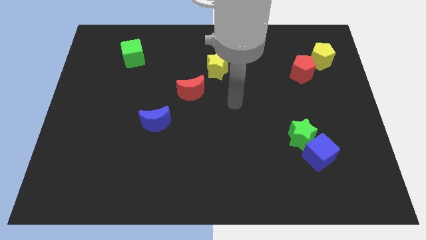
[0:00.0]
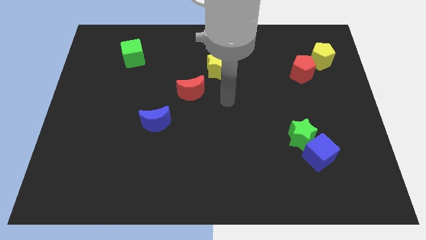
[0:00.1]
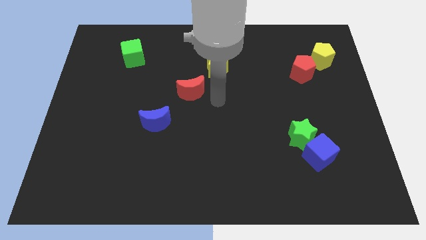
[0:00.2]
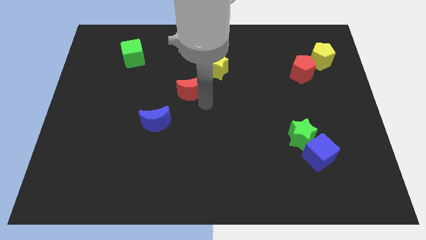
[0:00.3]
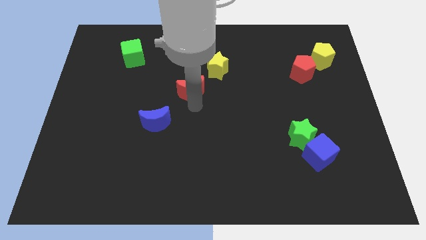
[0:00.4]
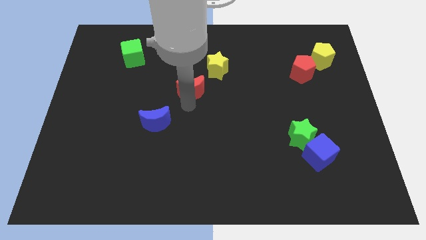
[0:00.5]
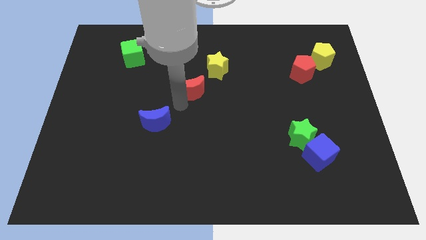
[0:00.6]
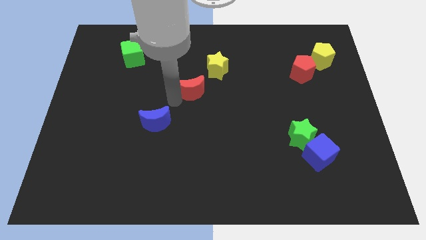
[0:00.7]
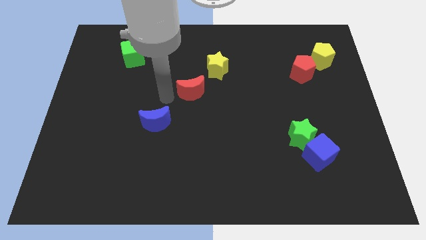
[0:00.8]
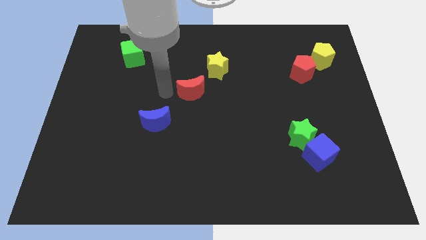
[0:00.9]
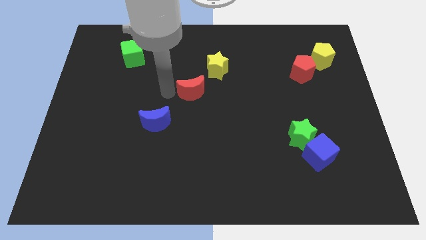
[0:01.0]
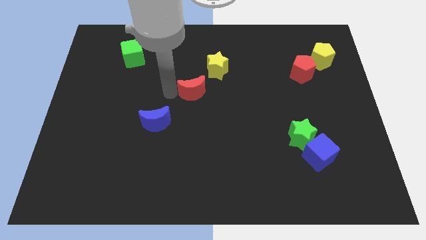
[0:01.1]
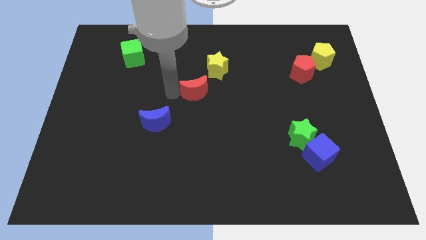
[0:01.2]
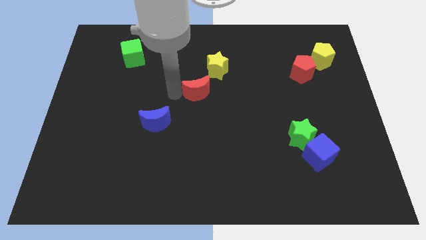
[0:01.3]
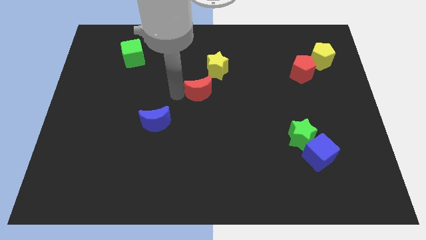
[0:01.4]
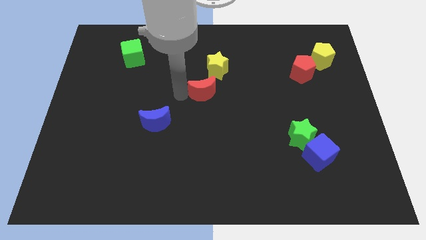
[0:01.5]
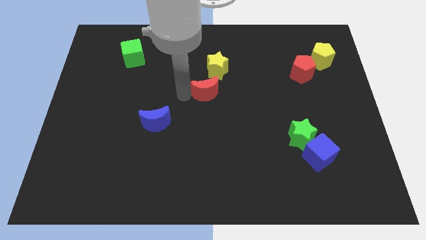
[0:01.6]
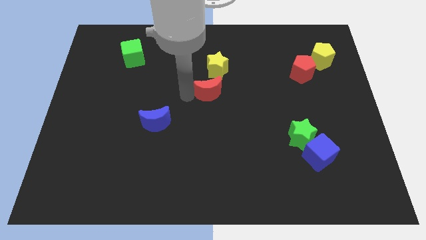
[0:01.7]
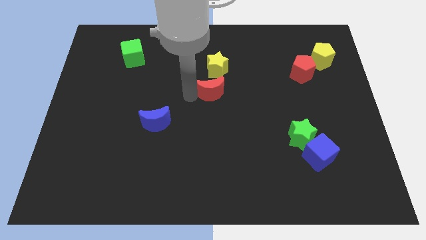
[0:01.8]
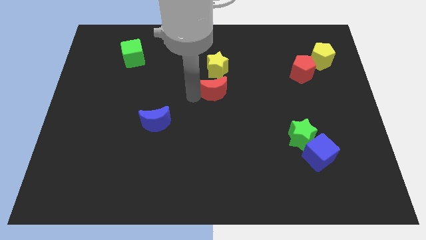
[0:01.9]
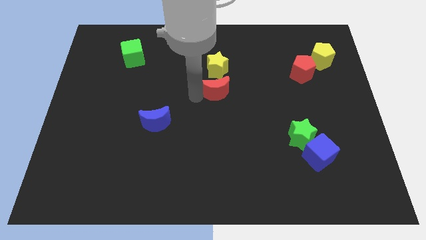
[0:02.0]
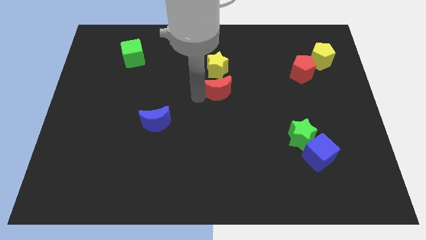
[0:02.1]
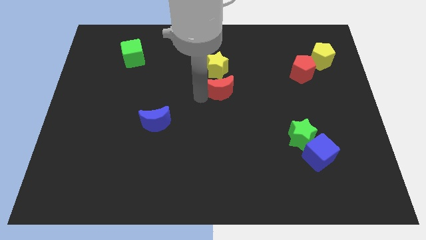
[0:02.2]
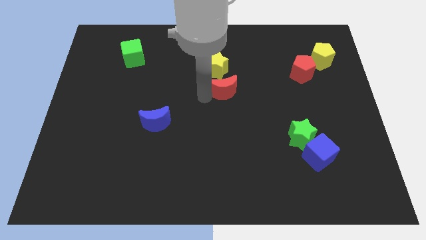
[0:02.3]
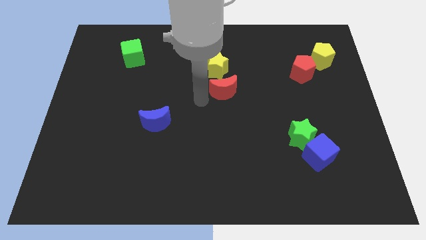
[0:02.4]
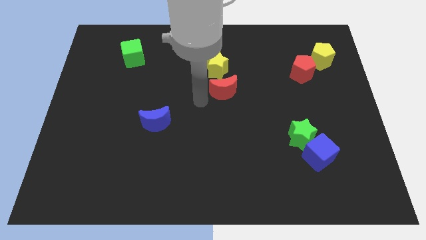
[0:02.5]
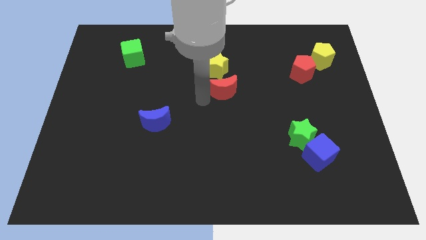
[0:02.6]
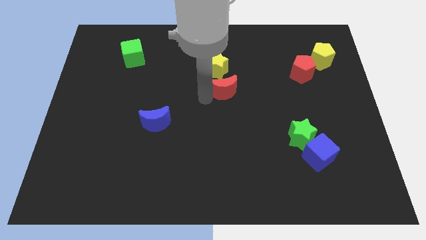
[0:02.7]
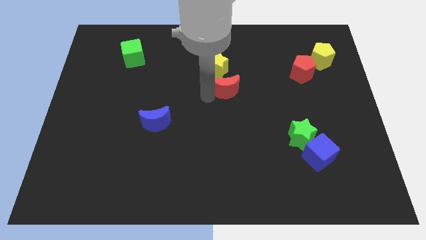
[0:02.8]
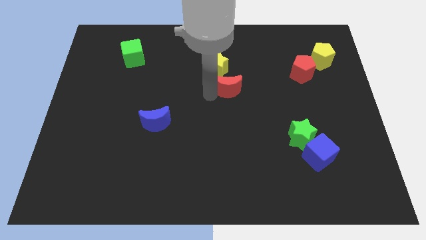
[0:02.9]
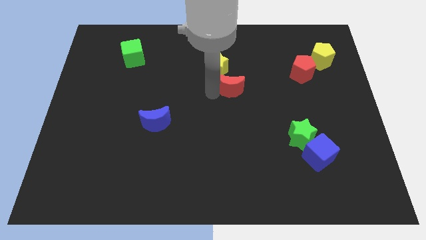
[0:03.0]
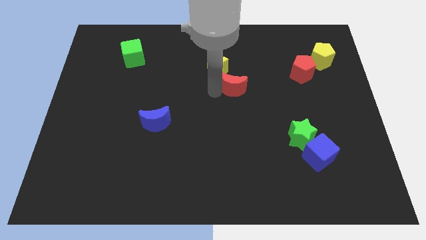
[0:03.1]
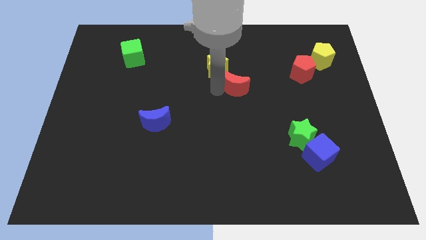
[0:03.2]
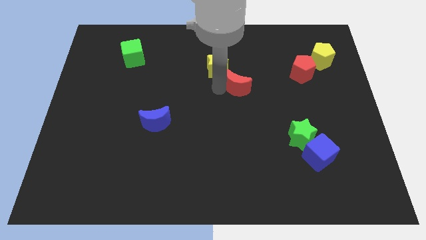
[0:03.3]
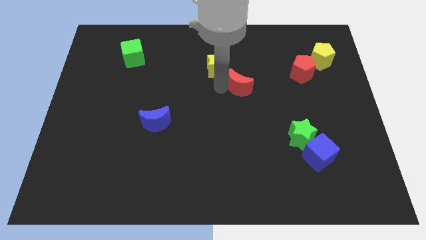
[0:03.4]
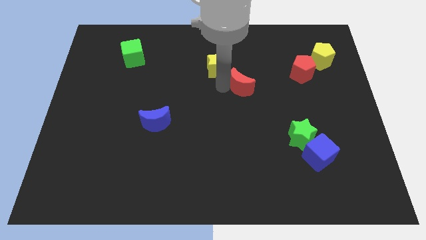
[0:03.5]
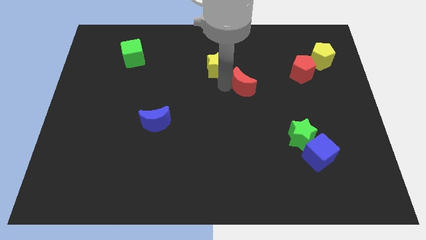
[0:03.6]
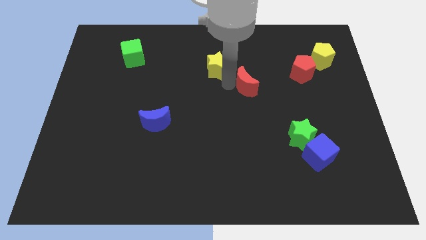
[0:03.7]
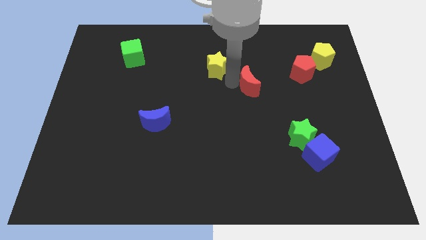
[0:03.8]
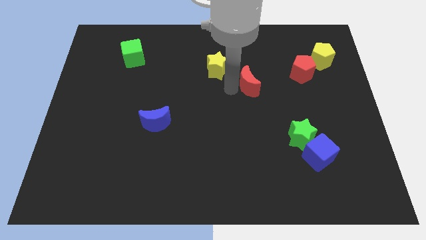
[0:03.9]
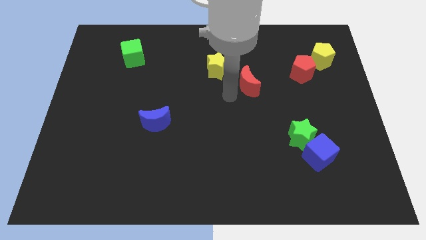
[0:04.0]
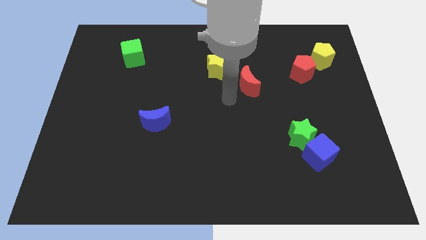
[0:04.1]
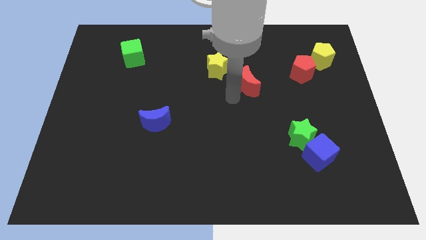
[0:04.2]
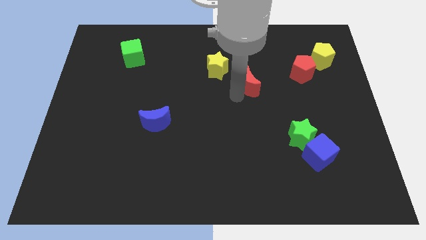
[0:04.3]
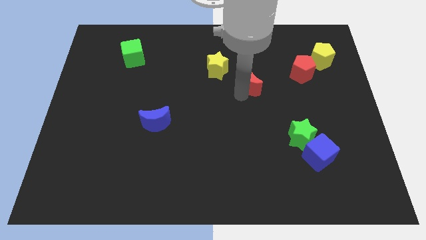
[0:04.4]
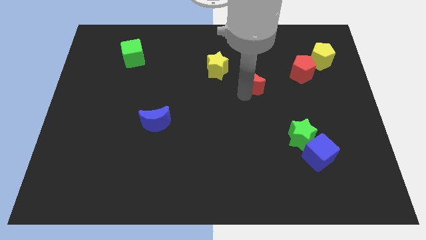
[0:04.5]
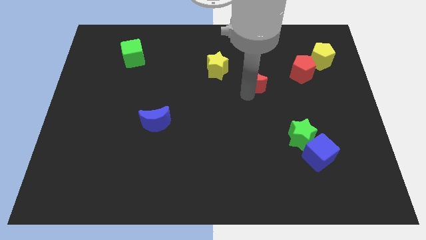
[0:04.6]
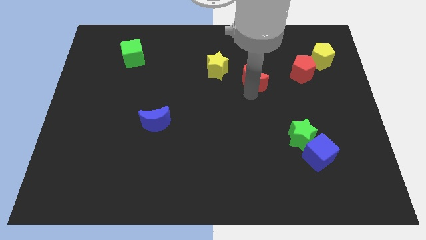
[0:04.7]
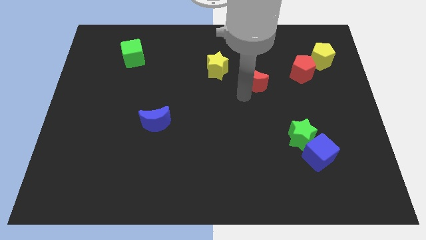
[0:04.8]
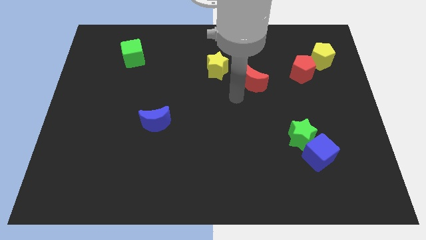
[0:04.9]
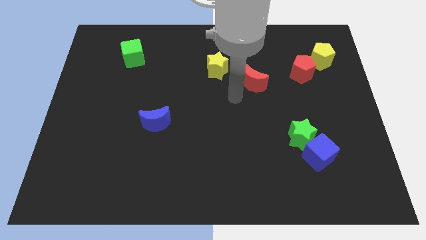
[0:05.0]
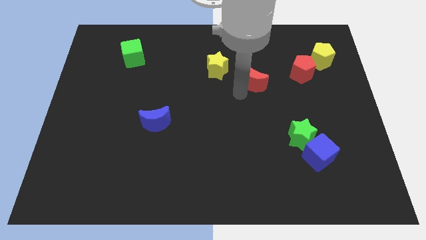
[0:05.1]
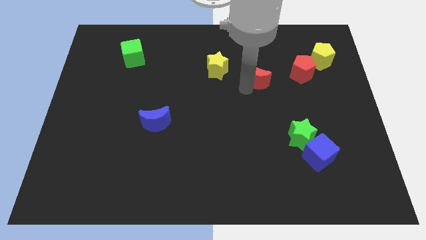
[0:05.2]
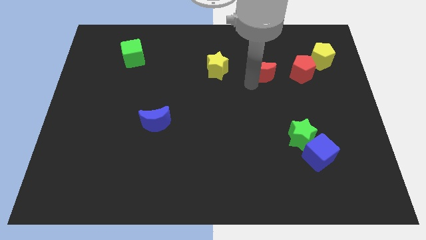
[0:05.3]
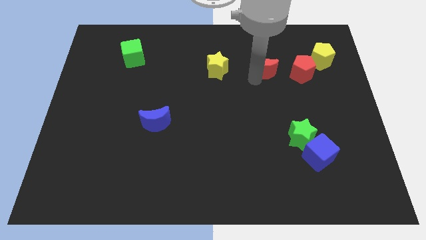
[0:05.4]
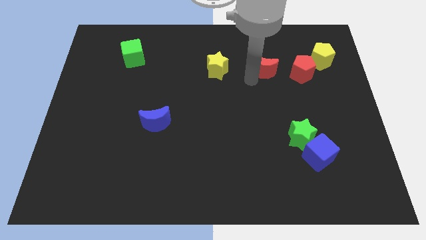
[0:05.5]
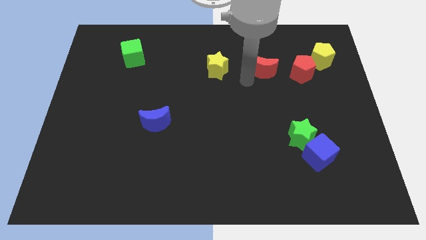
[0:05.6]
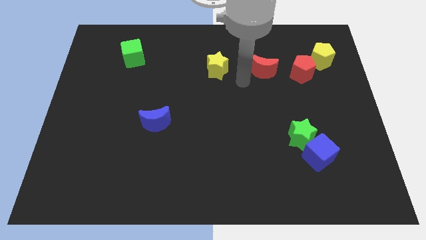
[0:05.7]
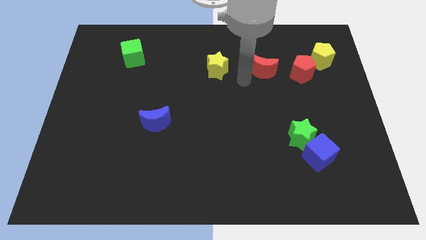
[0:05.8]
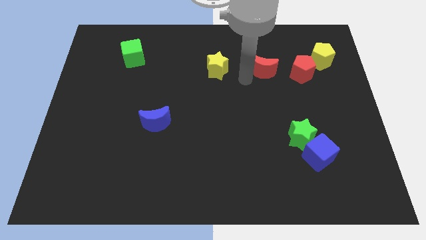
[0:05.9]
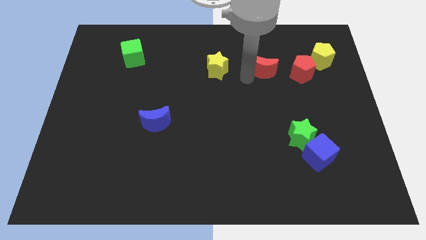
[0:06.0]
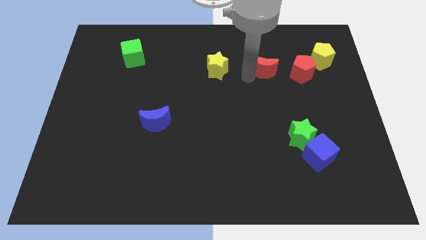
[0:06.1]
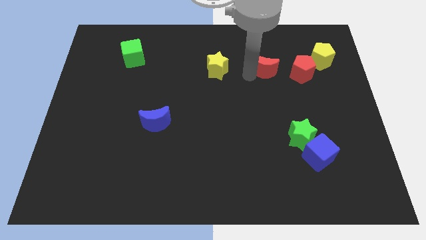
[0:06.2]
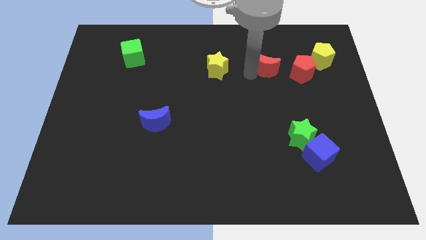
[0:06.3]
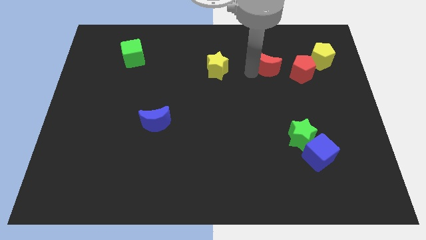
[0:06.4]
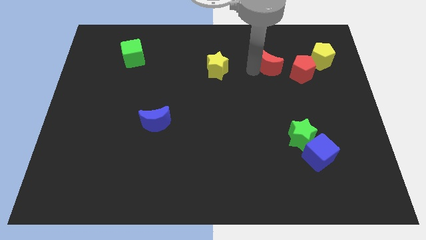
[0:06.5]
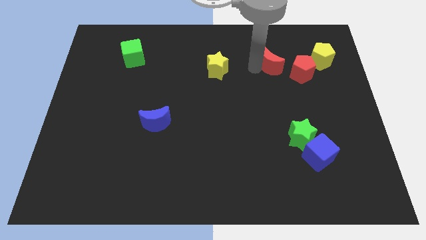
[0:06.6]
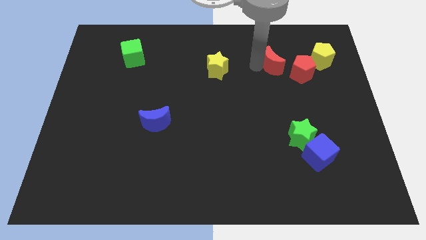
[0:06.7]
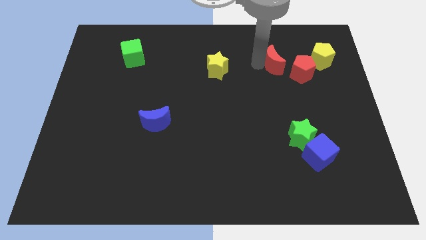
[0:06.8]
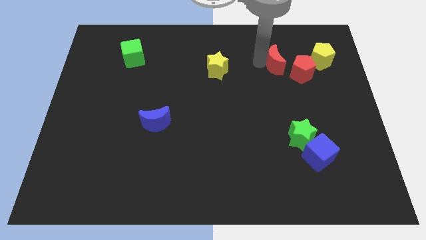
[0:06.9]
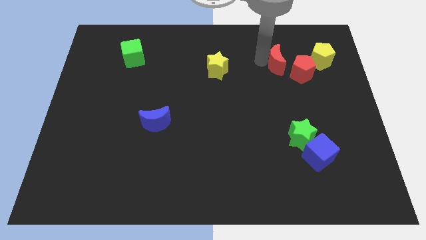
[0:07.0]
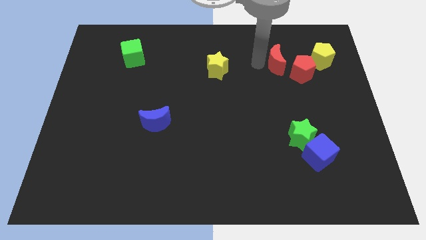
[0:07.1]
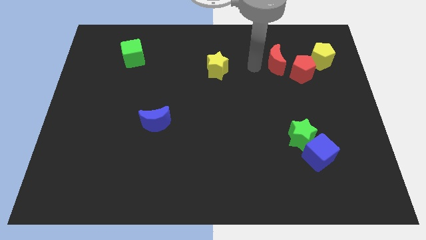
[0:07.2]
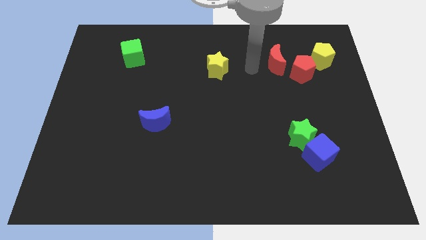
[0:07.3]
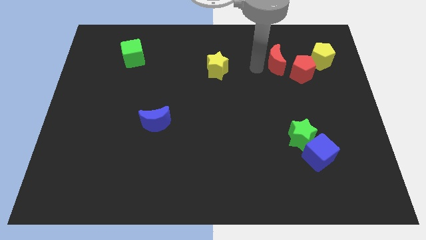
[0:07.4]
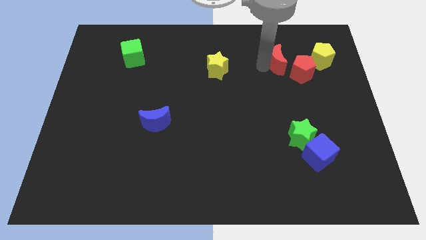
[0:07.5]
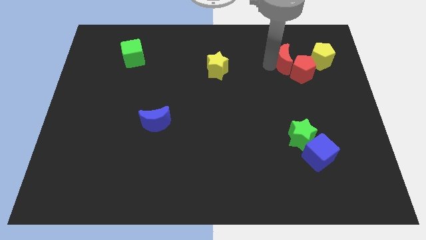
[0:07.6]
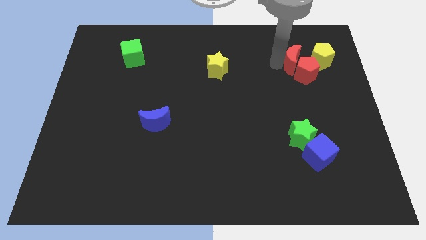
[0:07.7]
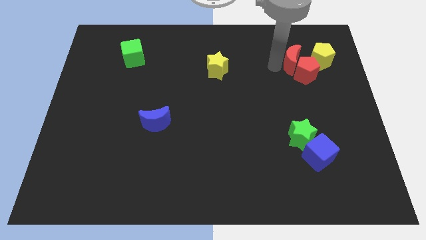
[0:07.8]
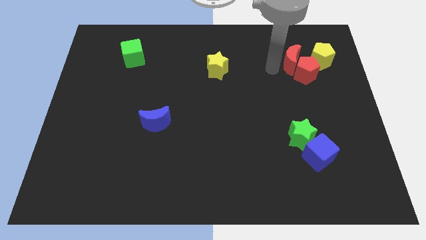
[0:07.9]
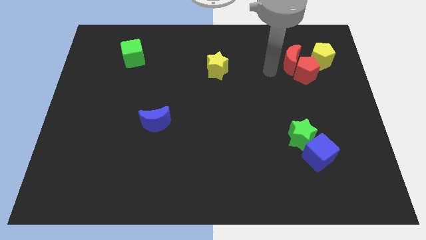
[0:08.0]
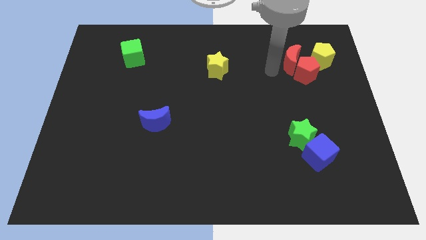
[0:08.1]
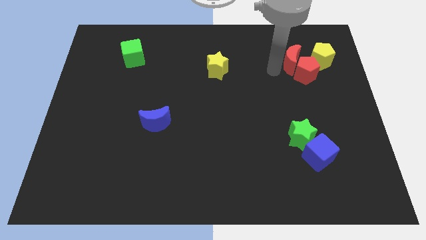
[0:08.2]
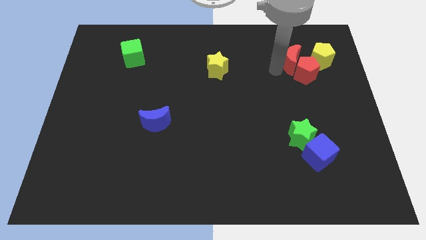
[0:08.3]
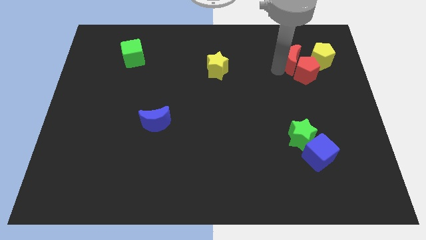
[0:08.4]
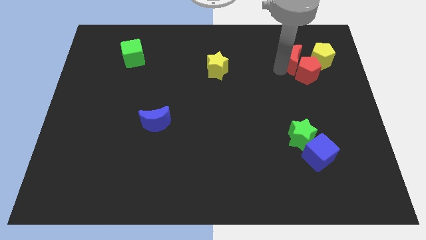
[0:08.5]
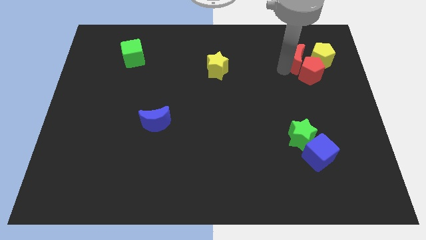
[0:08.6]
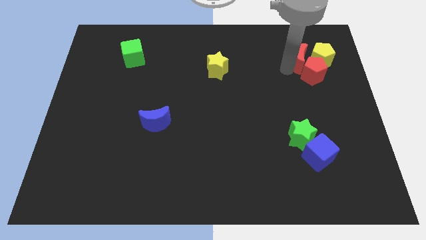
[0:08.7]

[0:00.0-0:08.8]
move the red moon towards the yellow pentagon
